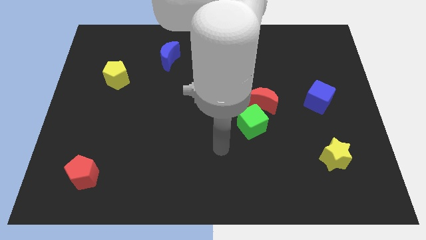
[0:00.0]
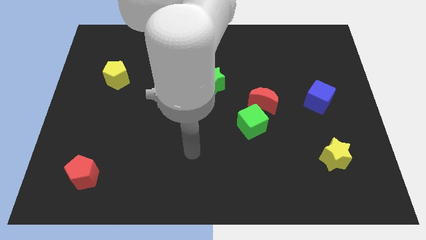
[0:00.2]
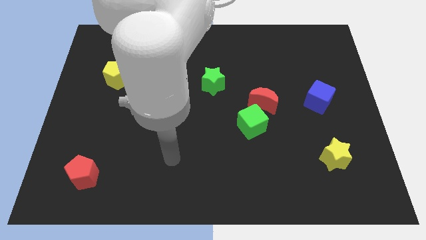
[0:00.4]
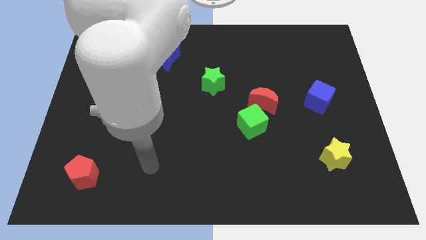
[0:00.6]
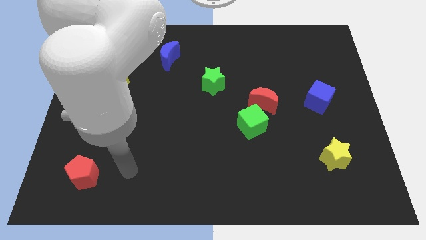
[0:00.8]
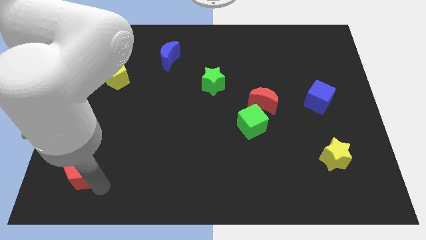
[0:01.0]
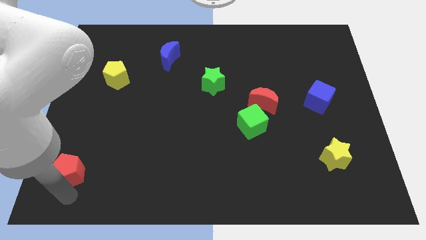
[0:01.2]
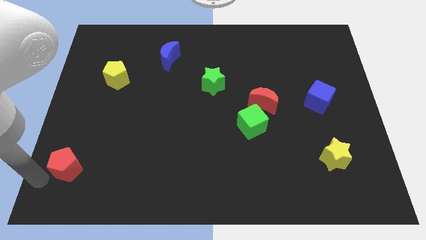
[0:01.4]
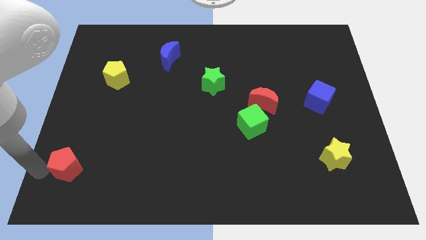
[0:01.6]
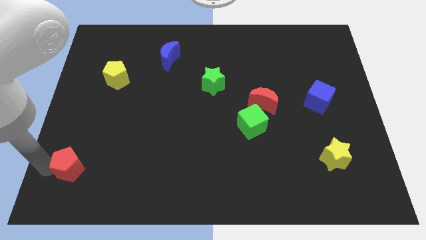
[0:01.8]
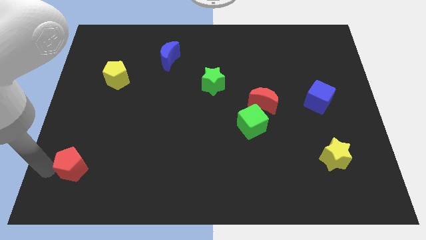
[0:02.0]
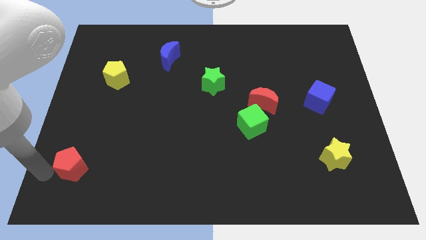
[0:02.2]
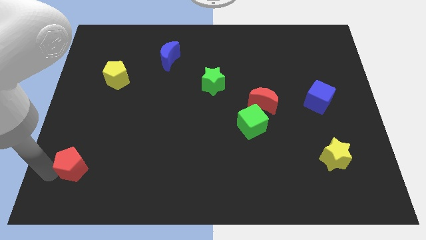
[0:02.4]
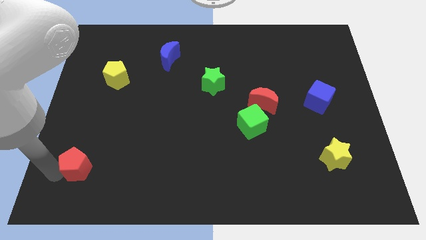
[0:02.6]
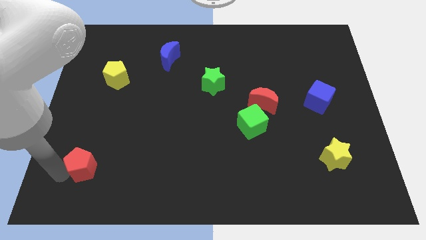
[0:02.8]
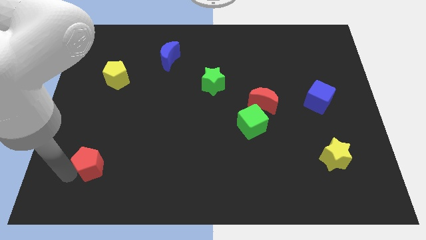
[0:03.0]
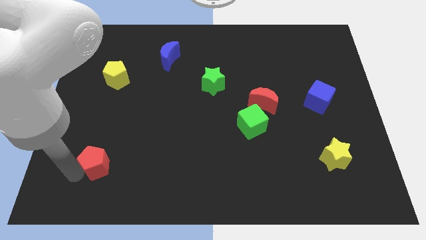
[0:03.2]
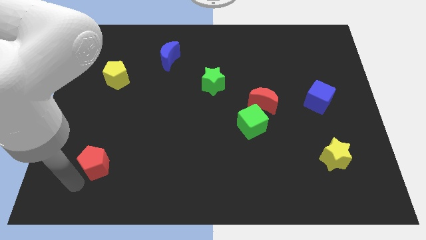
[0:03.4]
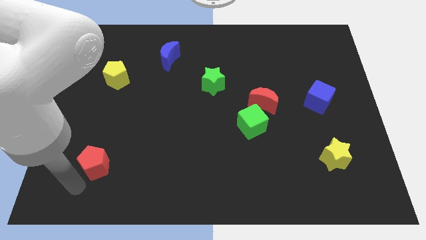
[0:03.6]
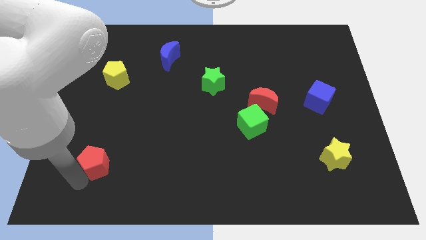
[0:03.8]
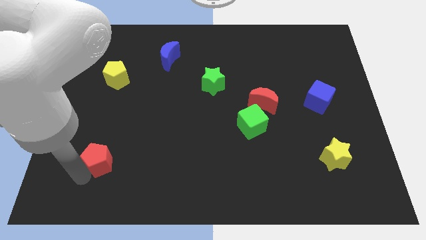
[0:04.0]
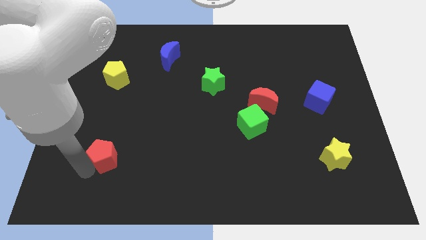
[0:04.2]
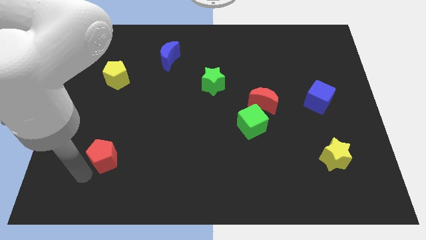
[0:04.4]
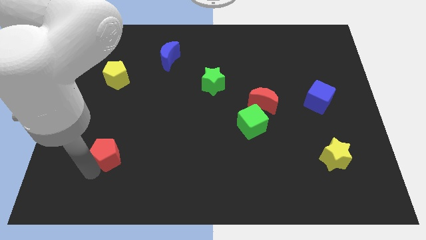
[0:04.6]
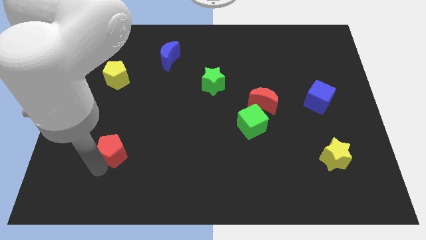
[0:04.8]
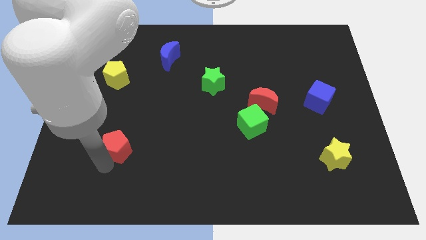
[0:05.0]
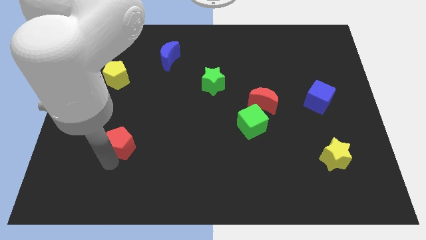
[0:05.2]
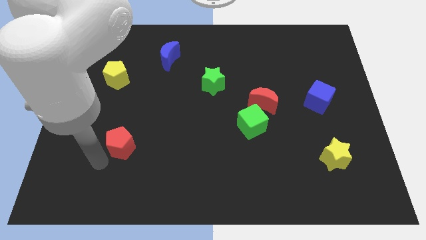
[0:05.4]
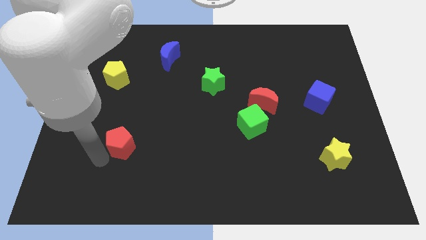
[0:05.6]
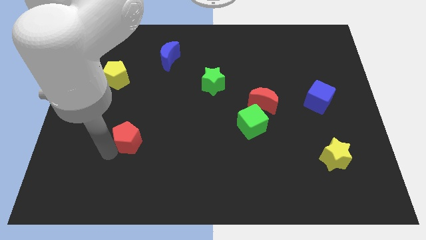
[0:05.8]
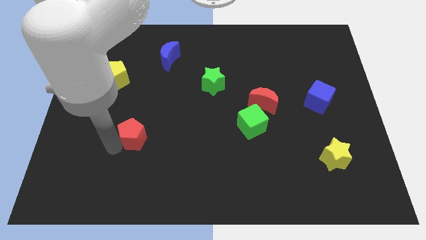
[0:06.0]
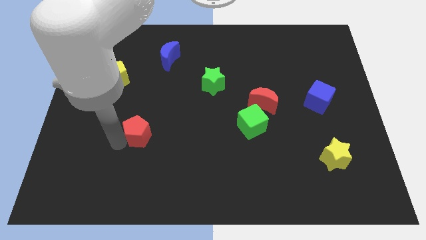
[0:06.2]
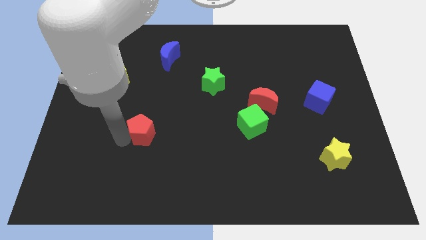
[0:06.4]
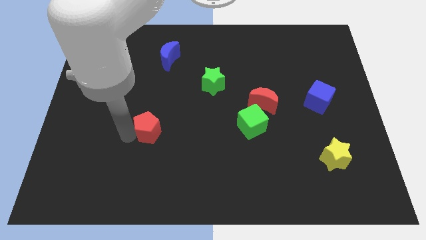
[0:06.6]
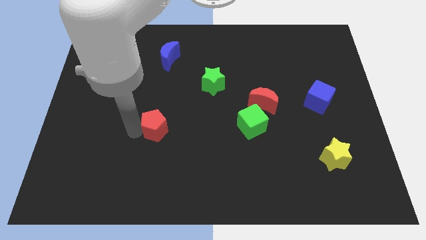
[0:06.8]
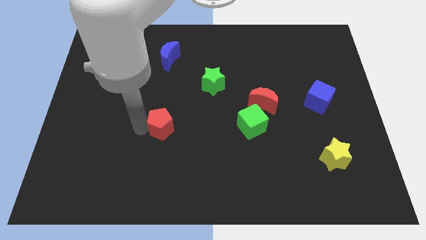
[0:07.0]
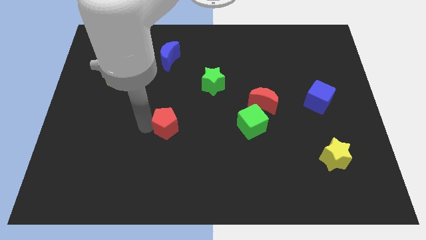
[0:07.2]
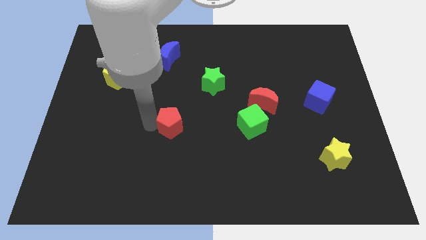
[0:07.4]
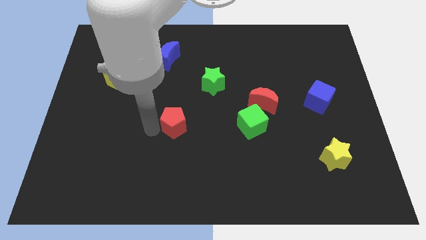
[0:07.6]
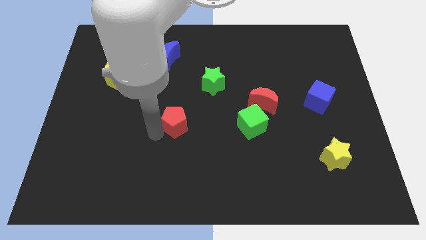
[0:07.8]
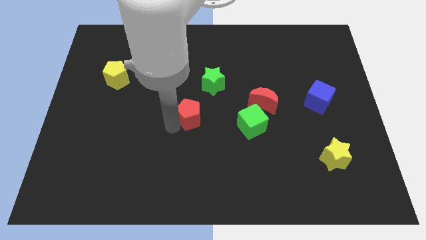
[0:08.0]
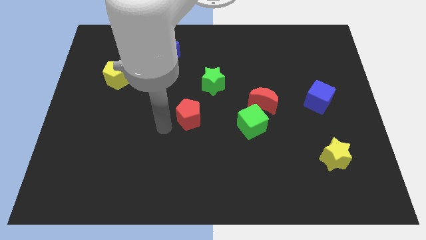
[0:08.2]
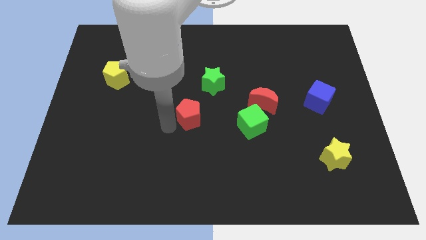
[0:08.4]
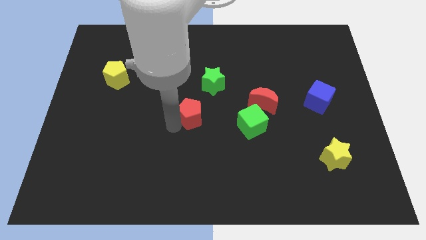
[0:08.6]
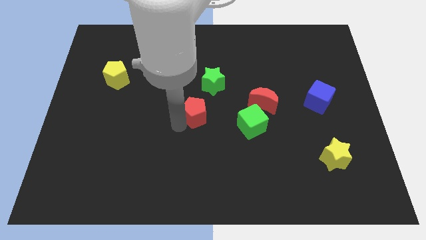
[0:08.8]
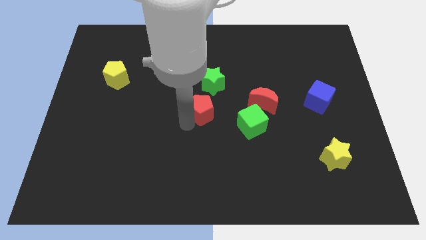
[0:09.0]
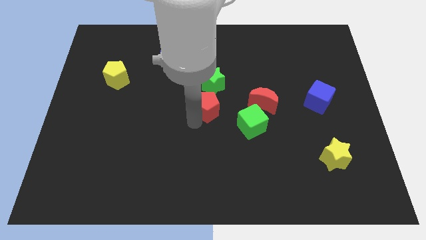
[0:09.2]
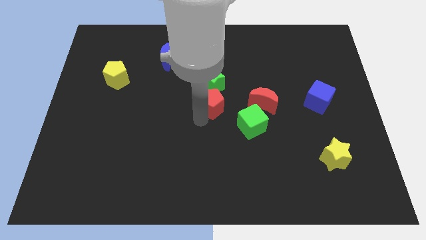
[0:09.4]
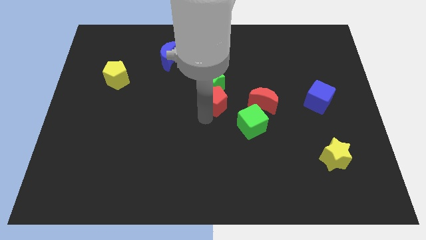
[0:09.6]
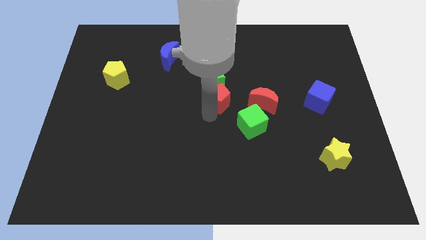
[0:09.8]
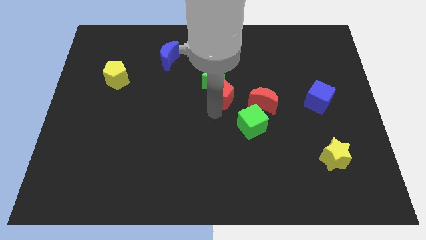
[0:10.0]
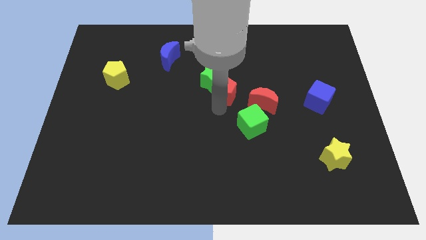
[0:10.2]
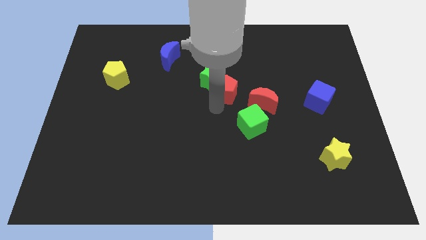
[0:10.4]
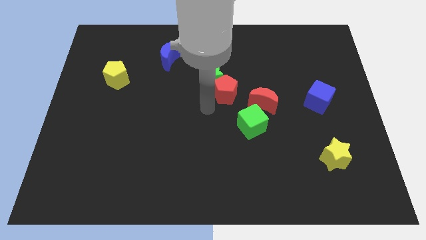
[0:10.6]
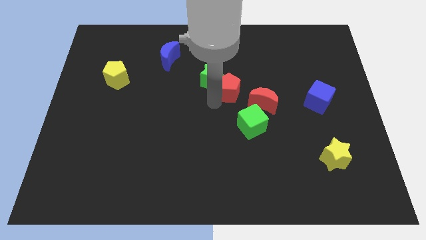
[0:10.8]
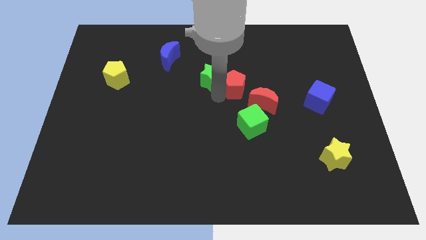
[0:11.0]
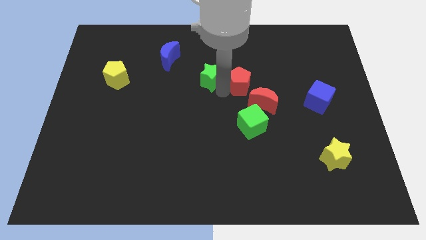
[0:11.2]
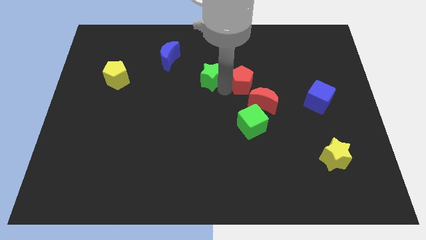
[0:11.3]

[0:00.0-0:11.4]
slide the red pentagon to the top side of the red moon

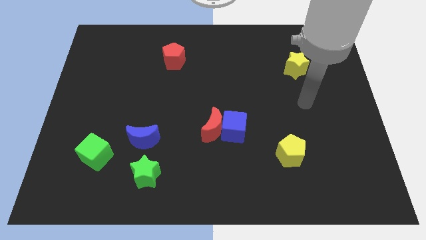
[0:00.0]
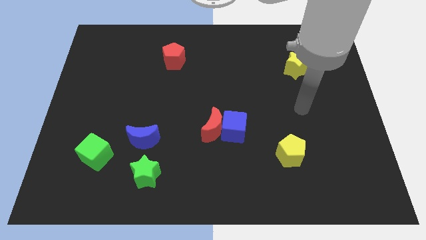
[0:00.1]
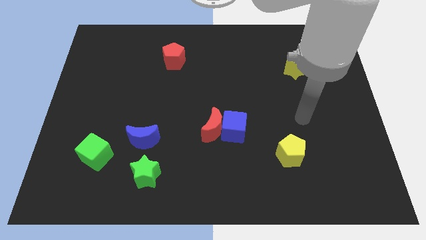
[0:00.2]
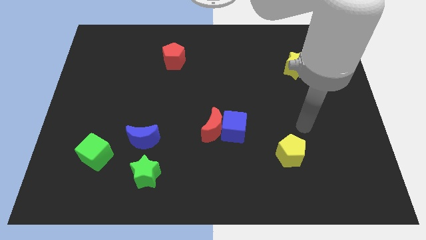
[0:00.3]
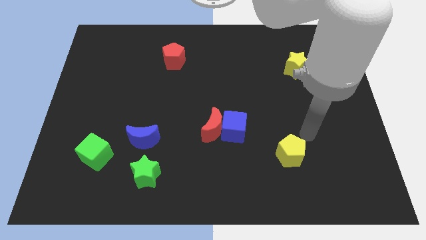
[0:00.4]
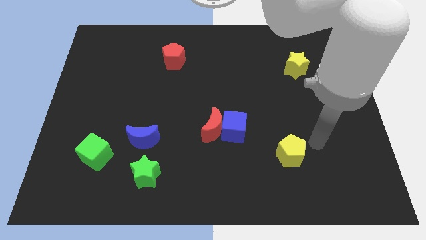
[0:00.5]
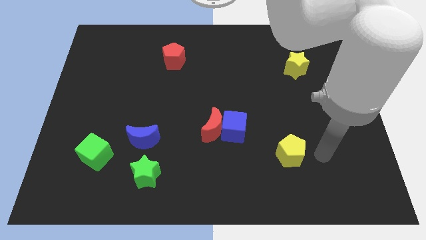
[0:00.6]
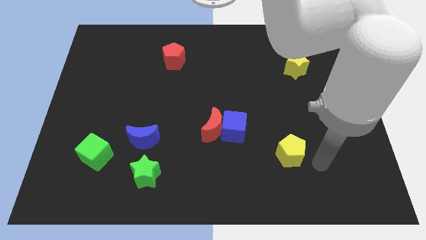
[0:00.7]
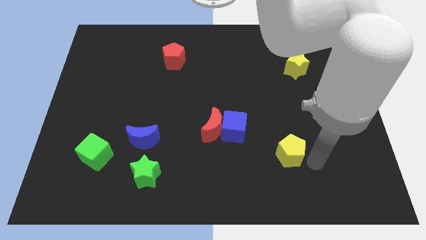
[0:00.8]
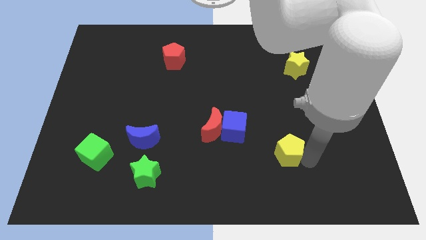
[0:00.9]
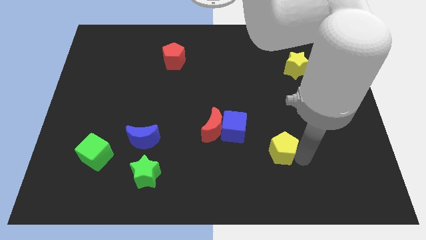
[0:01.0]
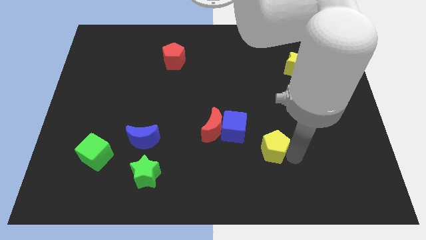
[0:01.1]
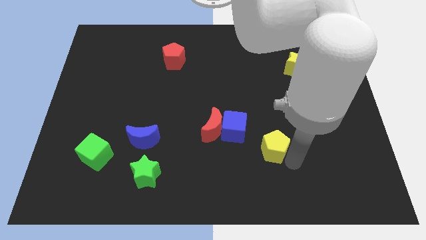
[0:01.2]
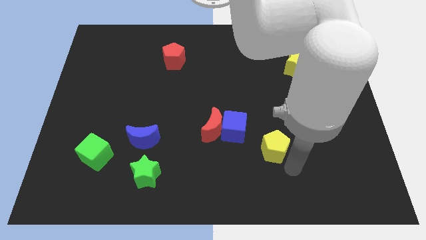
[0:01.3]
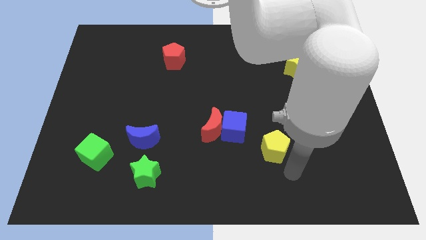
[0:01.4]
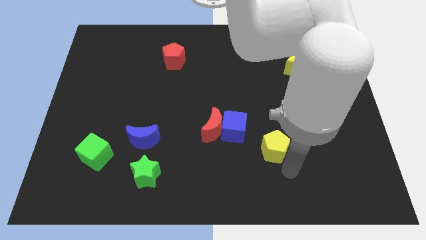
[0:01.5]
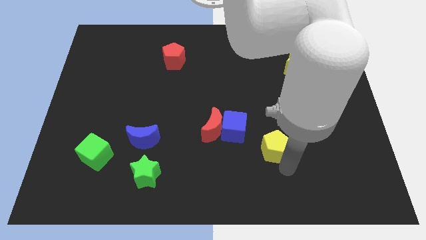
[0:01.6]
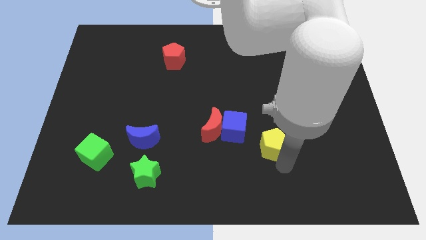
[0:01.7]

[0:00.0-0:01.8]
slide the yellow pentagon to the right side of the red moon
